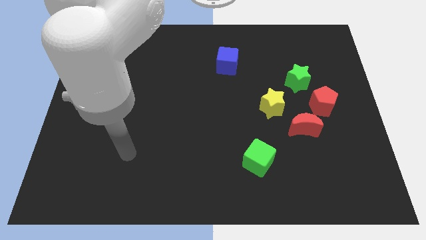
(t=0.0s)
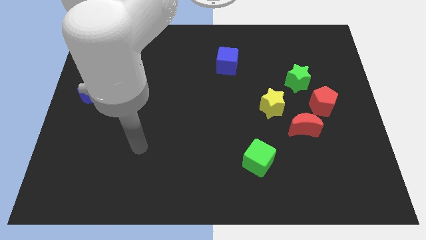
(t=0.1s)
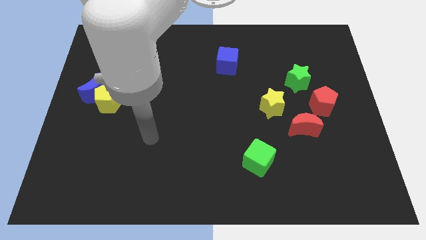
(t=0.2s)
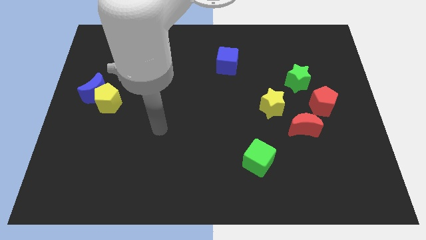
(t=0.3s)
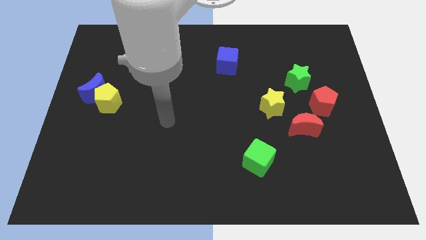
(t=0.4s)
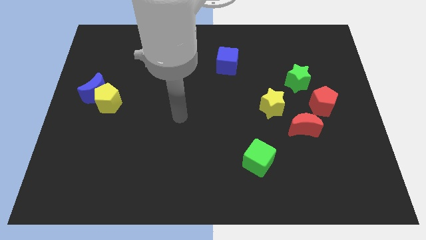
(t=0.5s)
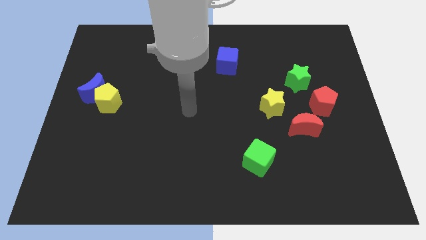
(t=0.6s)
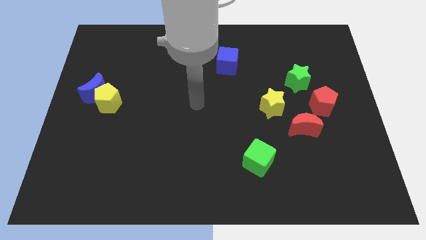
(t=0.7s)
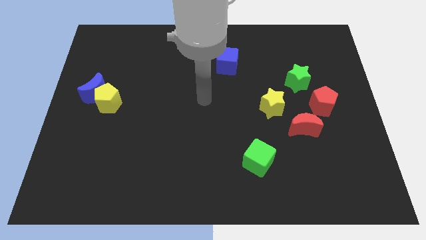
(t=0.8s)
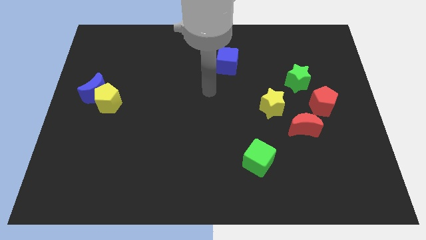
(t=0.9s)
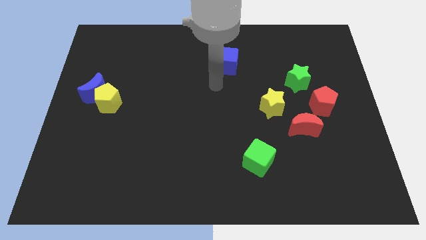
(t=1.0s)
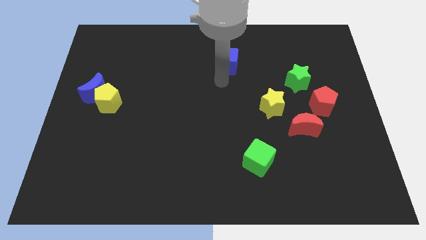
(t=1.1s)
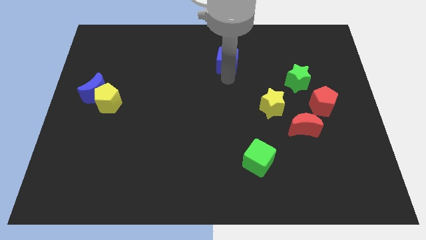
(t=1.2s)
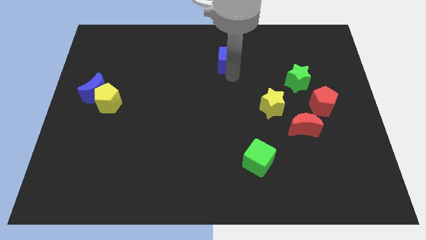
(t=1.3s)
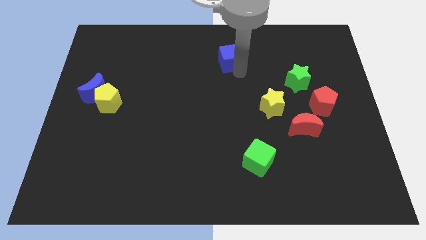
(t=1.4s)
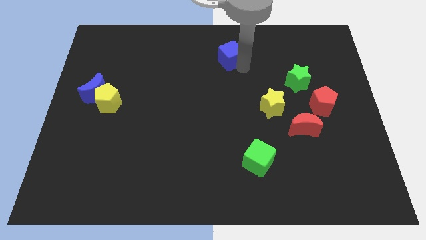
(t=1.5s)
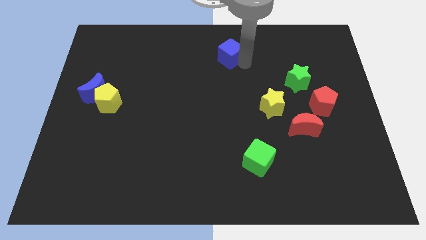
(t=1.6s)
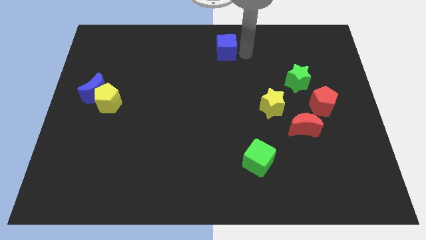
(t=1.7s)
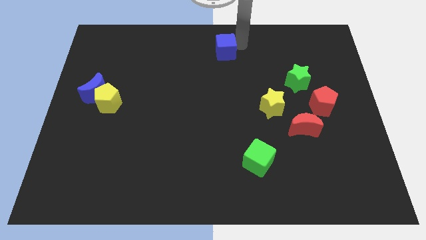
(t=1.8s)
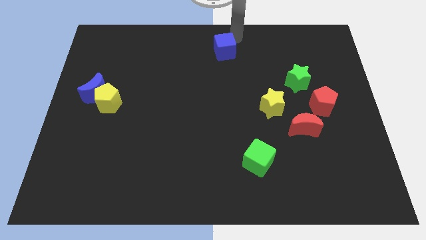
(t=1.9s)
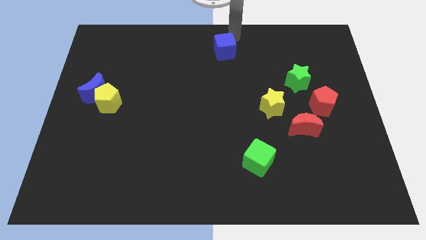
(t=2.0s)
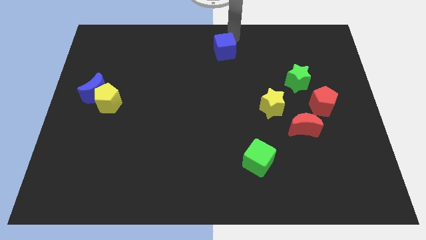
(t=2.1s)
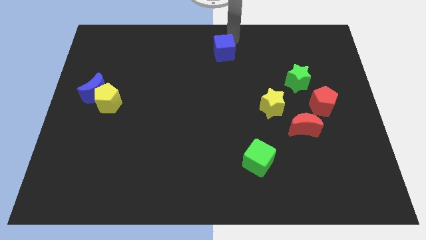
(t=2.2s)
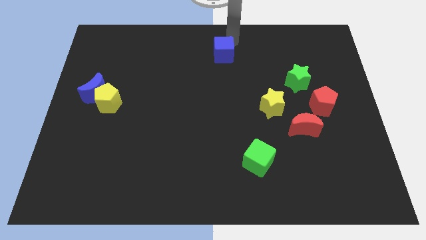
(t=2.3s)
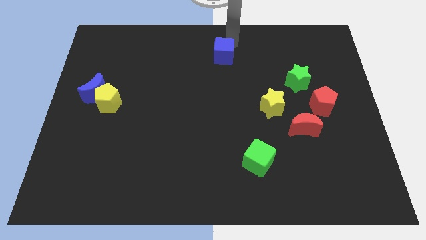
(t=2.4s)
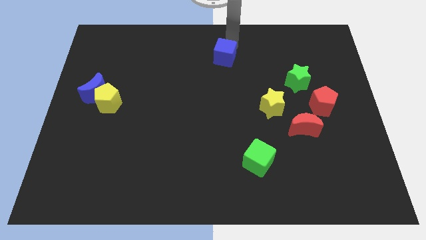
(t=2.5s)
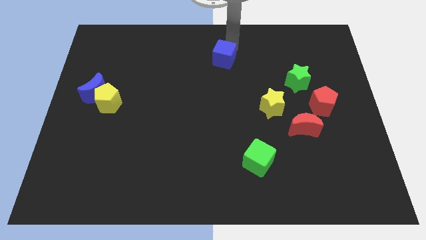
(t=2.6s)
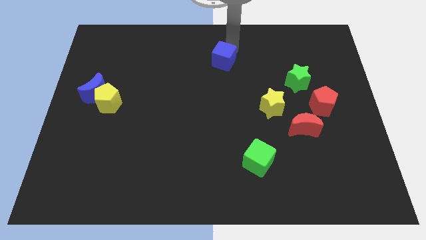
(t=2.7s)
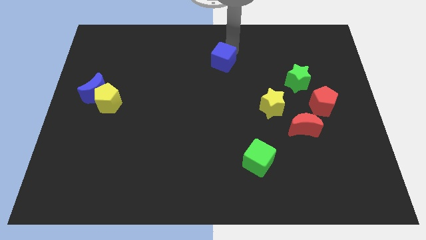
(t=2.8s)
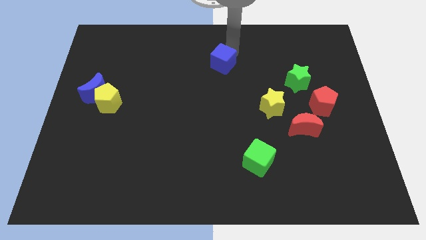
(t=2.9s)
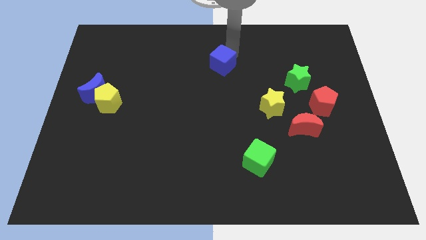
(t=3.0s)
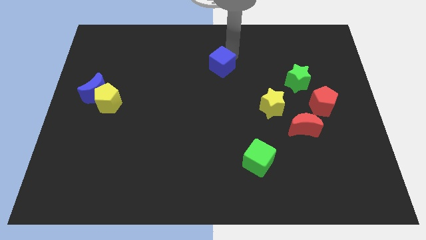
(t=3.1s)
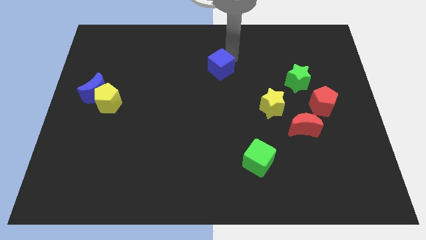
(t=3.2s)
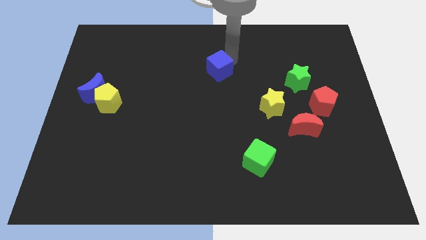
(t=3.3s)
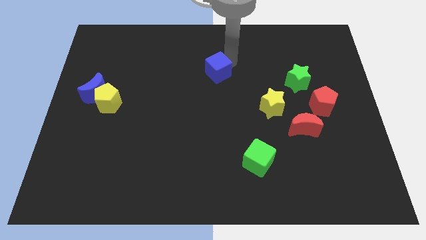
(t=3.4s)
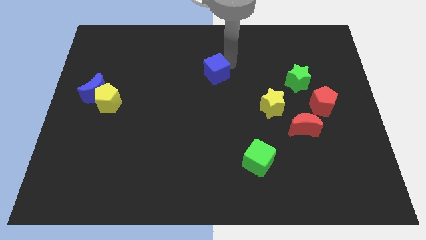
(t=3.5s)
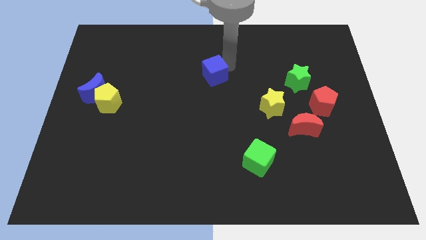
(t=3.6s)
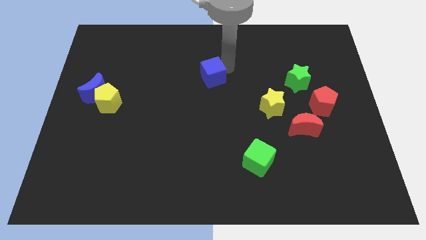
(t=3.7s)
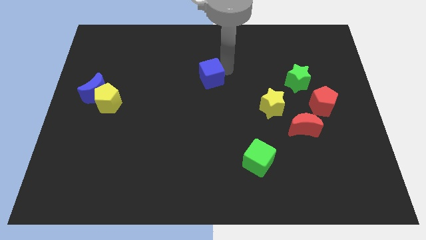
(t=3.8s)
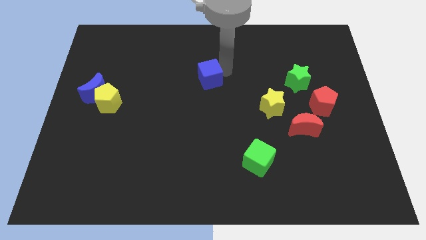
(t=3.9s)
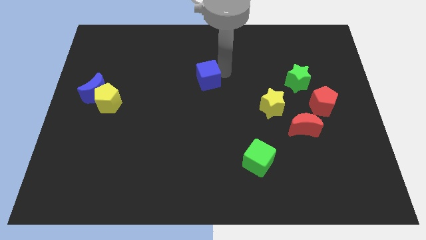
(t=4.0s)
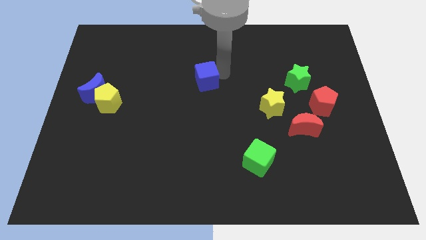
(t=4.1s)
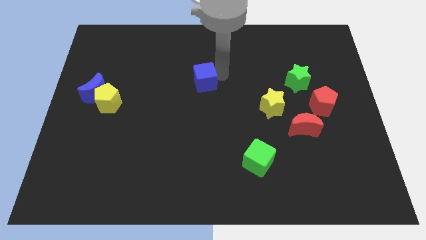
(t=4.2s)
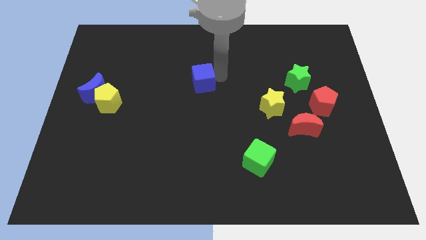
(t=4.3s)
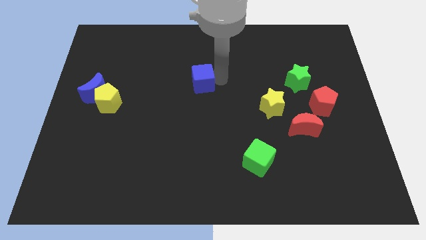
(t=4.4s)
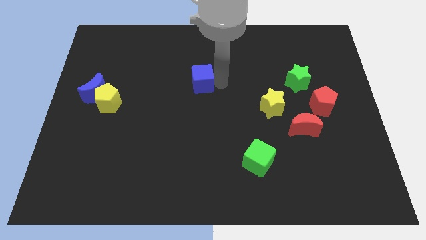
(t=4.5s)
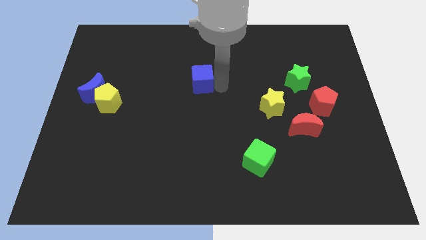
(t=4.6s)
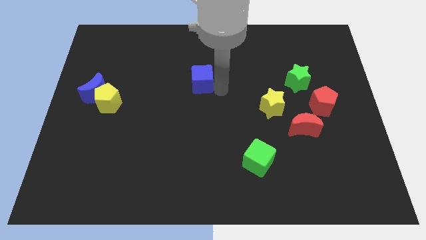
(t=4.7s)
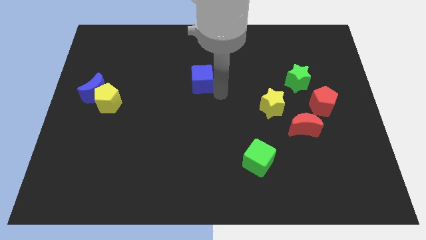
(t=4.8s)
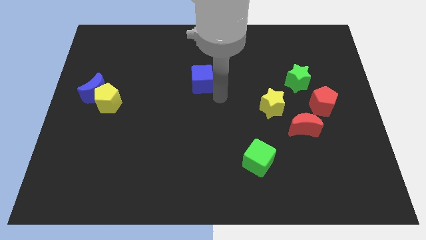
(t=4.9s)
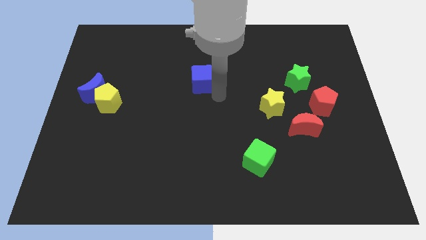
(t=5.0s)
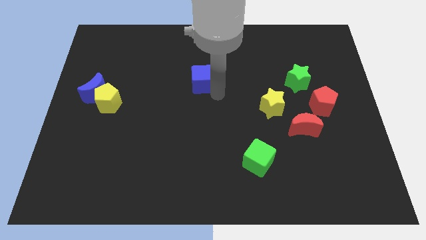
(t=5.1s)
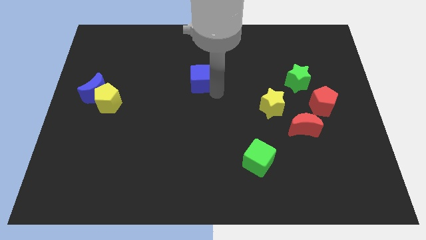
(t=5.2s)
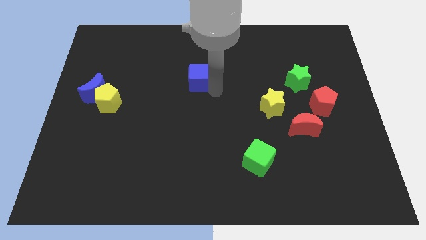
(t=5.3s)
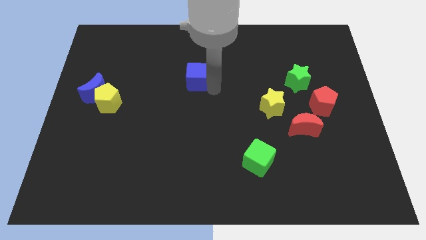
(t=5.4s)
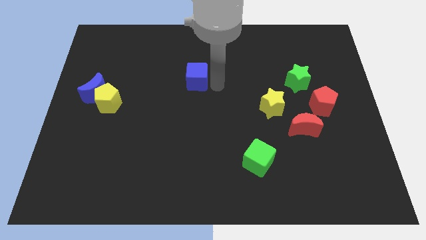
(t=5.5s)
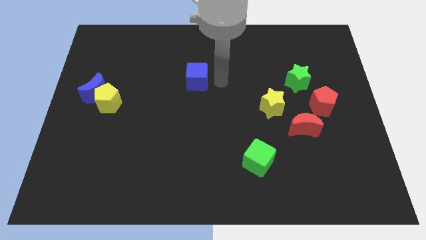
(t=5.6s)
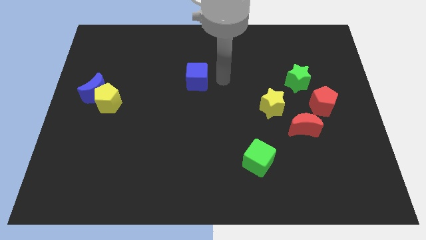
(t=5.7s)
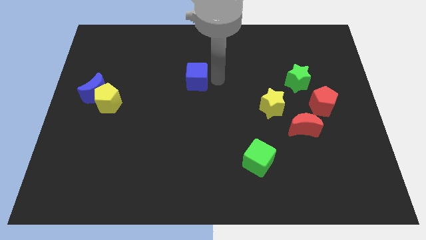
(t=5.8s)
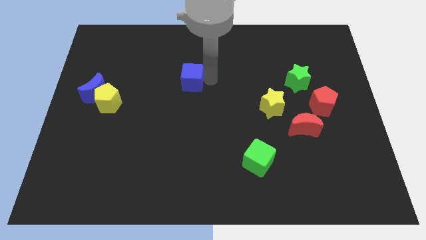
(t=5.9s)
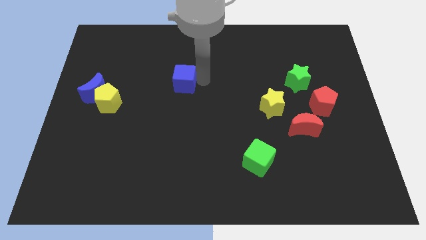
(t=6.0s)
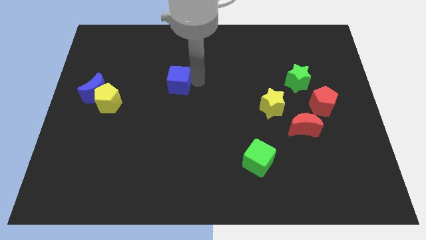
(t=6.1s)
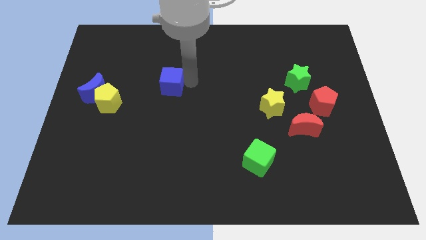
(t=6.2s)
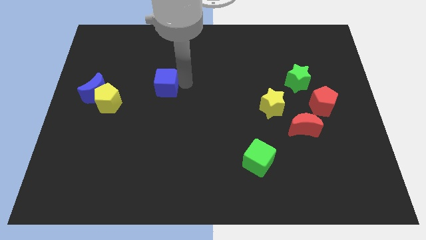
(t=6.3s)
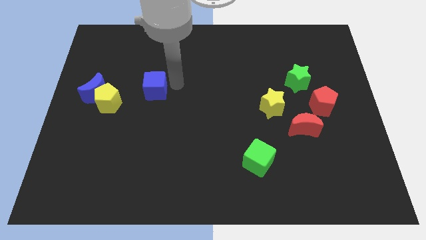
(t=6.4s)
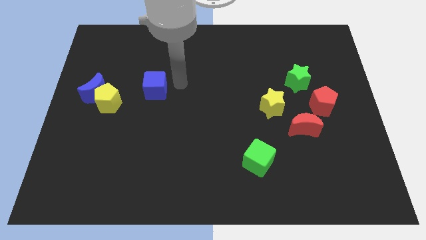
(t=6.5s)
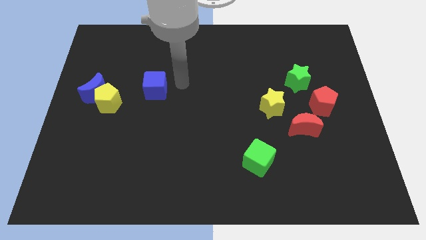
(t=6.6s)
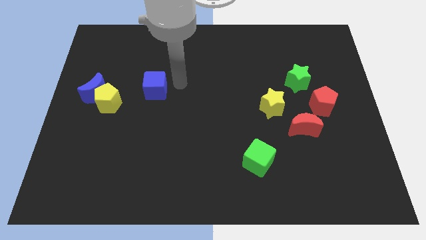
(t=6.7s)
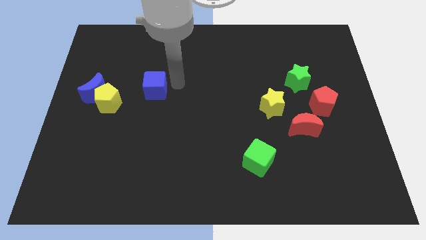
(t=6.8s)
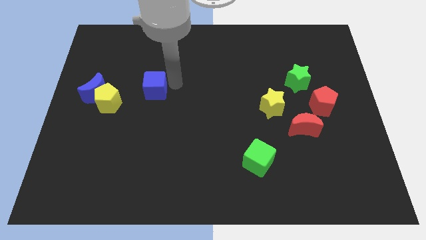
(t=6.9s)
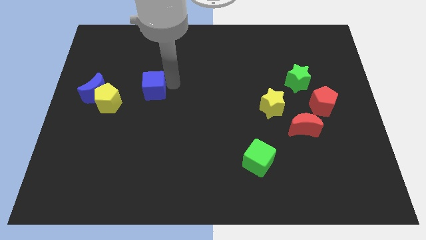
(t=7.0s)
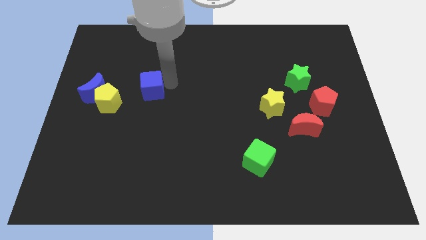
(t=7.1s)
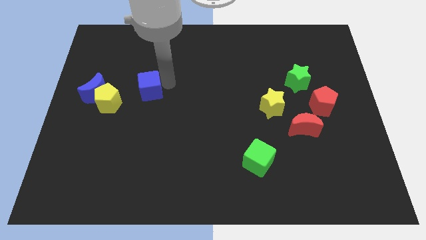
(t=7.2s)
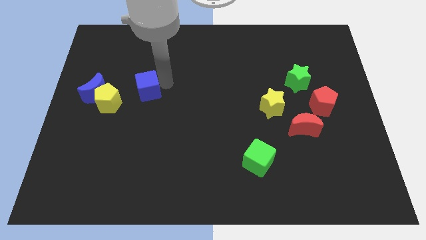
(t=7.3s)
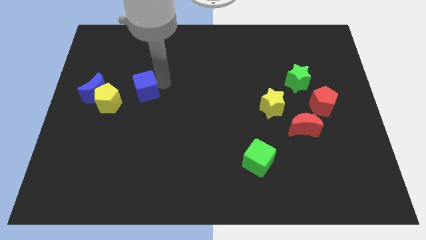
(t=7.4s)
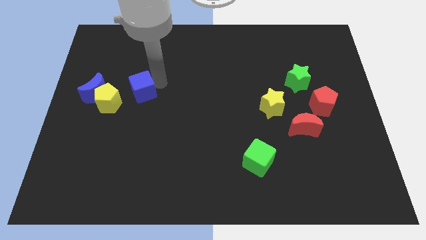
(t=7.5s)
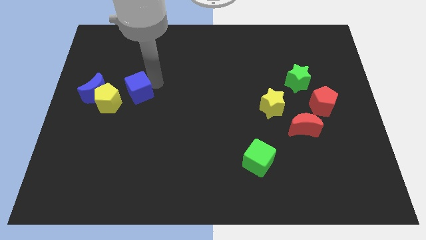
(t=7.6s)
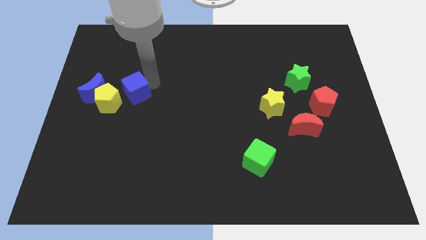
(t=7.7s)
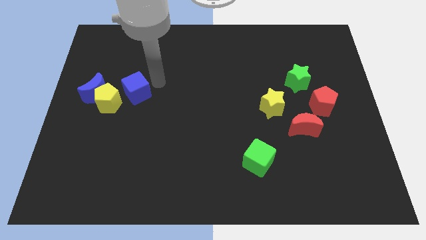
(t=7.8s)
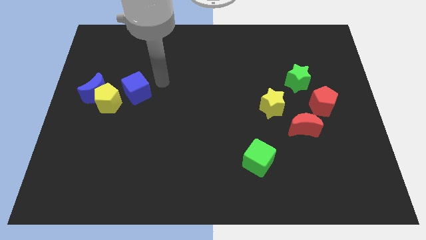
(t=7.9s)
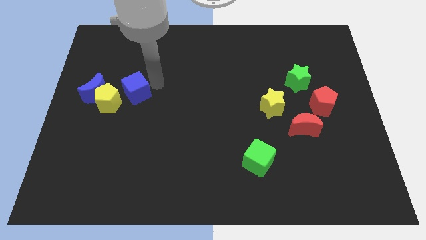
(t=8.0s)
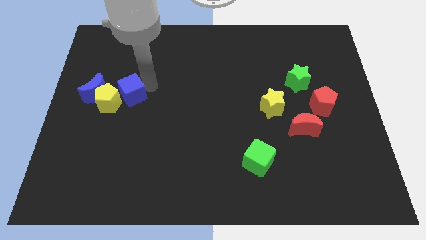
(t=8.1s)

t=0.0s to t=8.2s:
put the blue cube close to the yellow pentagon
